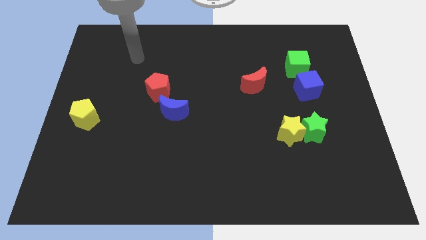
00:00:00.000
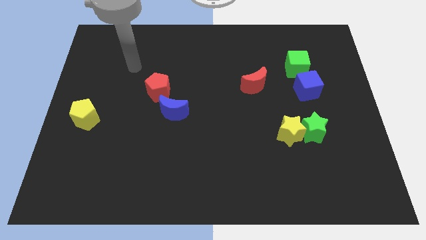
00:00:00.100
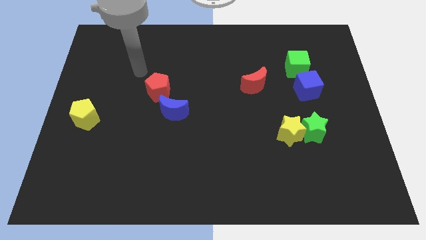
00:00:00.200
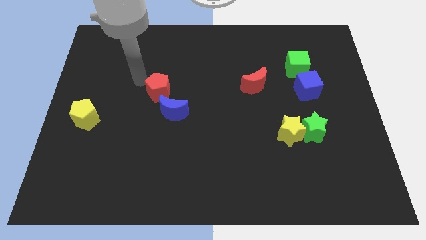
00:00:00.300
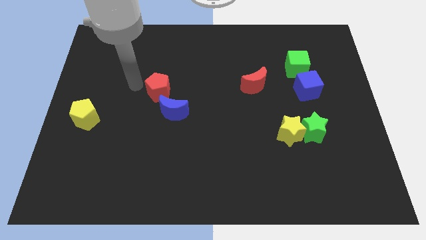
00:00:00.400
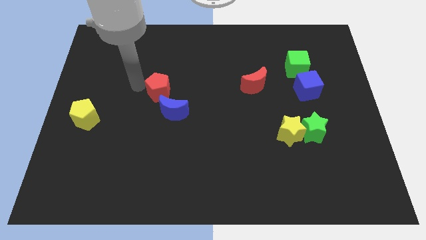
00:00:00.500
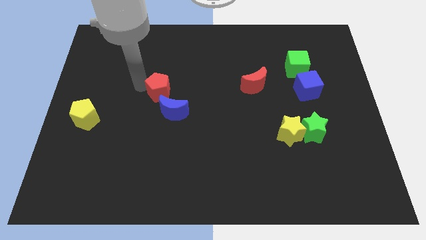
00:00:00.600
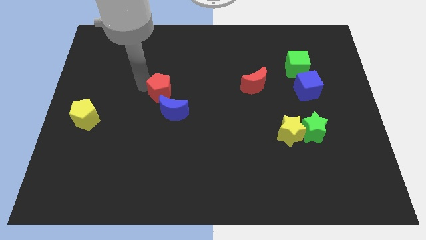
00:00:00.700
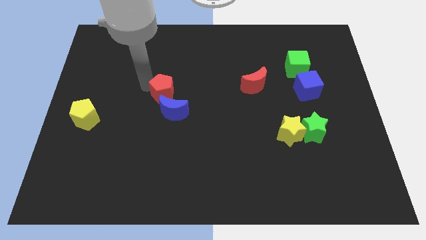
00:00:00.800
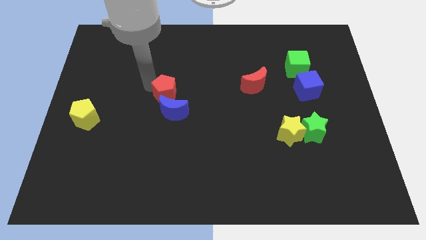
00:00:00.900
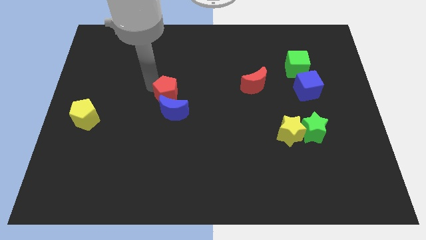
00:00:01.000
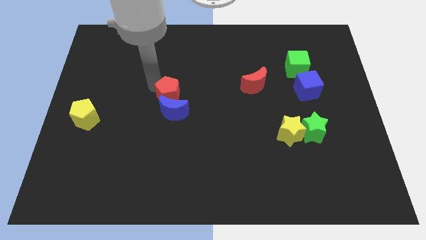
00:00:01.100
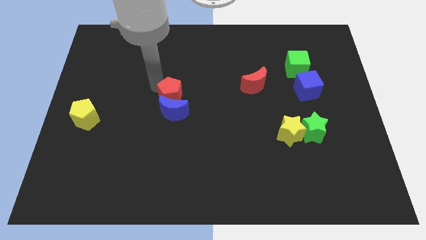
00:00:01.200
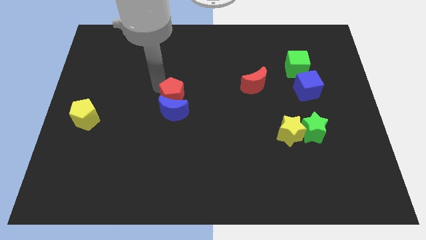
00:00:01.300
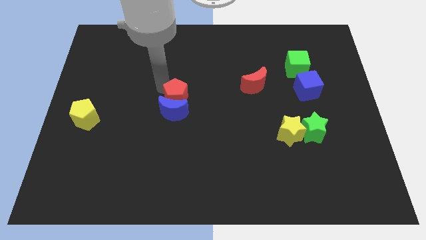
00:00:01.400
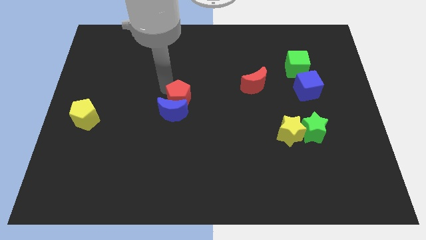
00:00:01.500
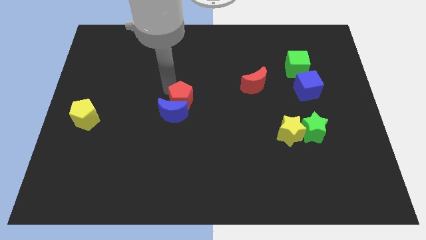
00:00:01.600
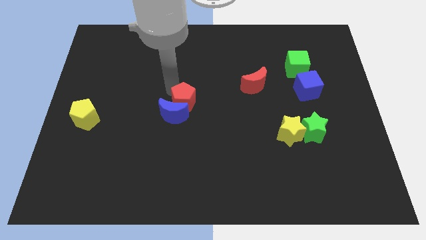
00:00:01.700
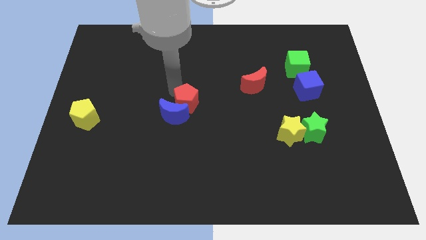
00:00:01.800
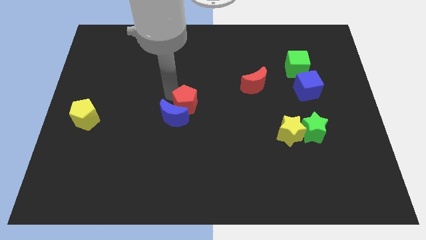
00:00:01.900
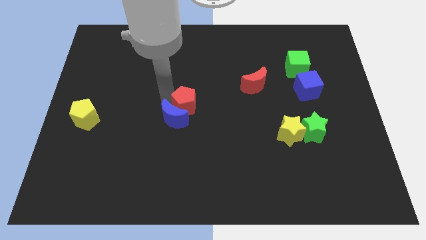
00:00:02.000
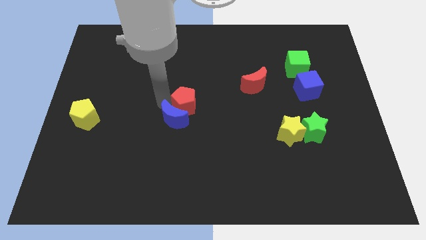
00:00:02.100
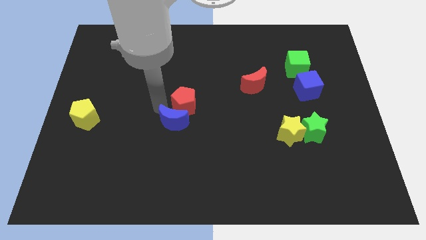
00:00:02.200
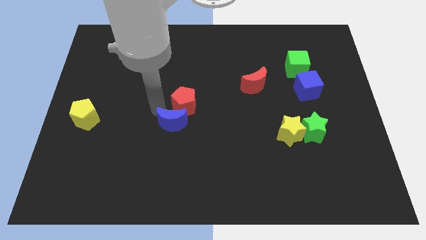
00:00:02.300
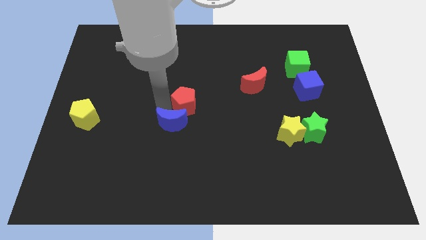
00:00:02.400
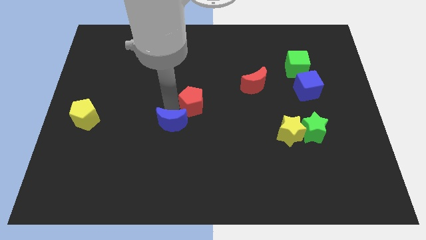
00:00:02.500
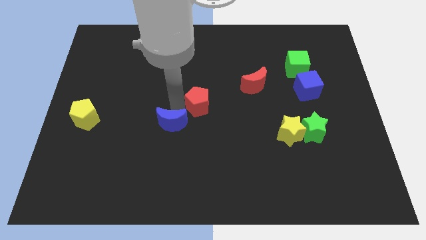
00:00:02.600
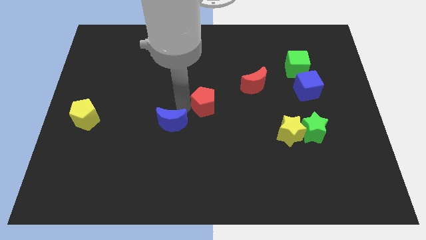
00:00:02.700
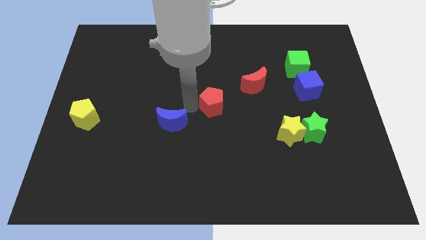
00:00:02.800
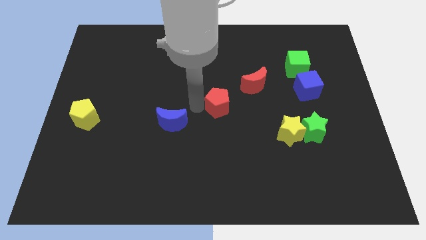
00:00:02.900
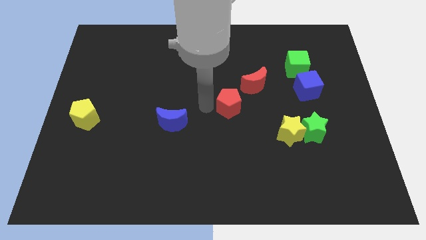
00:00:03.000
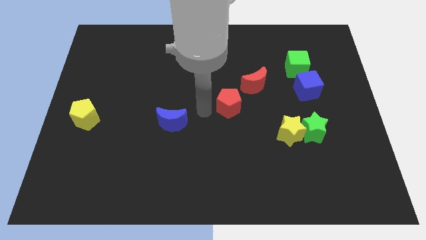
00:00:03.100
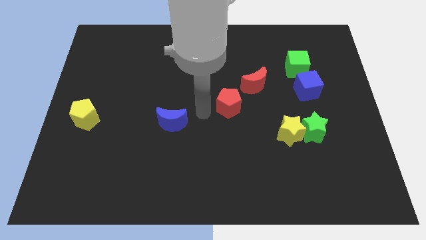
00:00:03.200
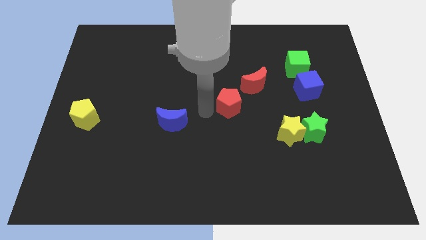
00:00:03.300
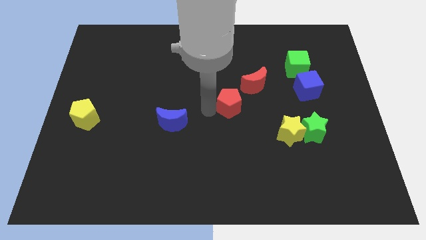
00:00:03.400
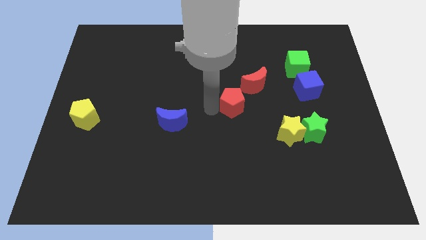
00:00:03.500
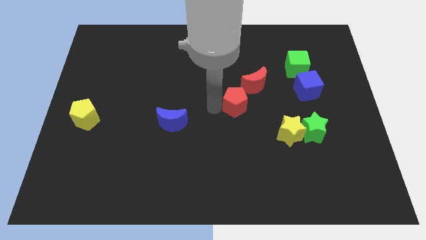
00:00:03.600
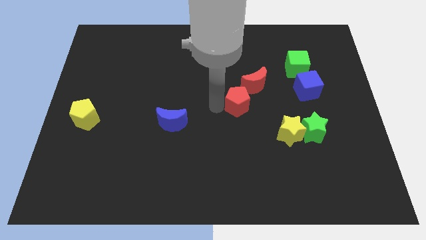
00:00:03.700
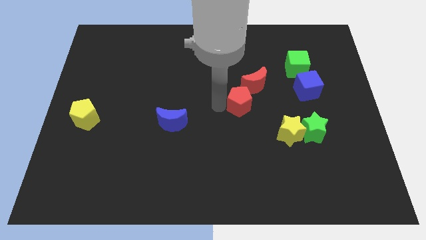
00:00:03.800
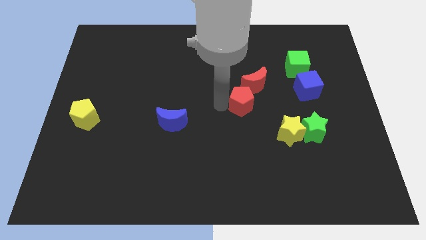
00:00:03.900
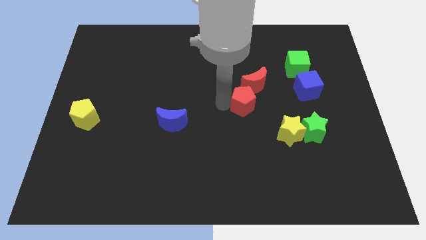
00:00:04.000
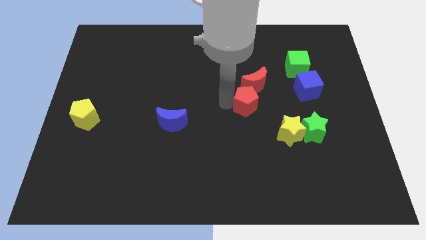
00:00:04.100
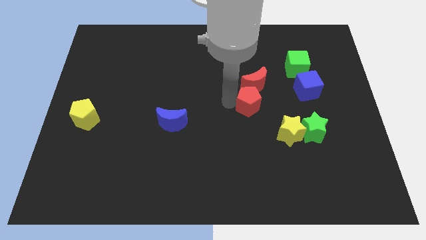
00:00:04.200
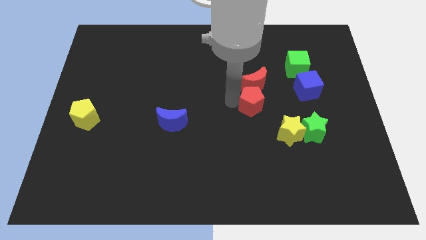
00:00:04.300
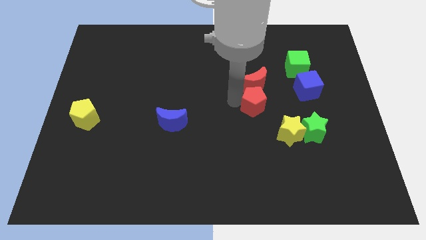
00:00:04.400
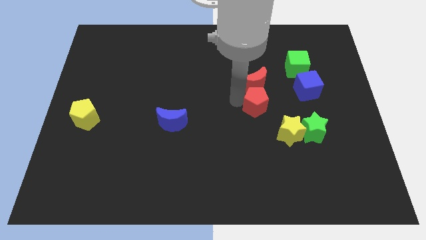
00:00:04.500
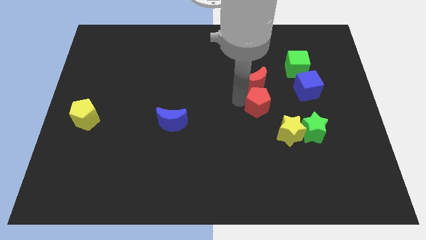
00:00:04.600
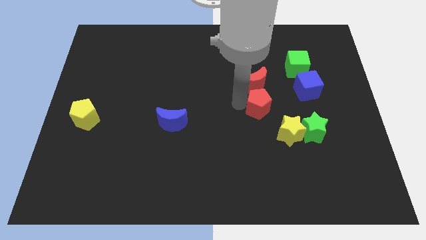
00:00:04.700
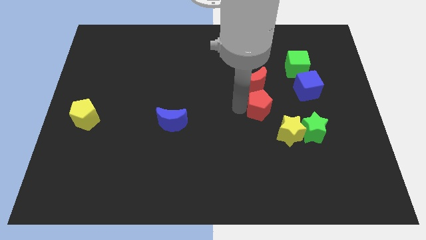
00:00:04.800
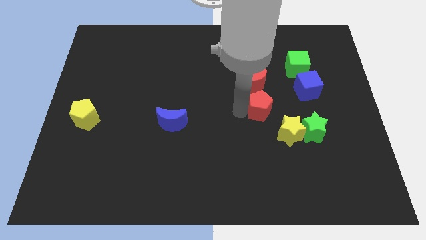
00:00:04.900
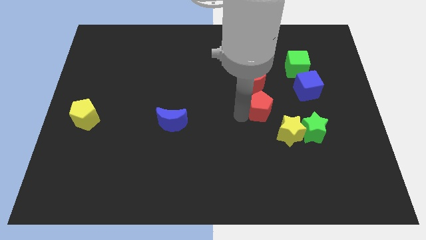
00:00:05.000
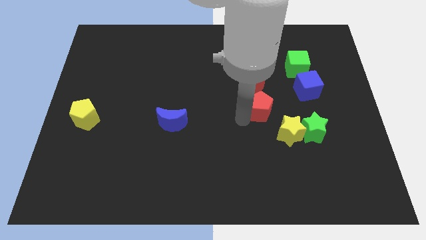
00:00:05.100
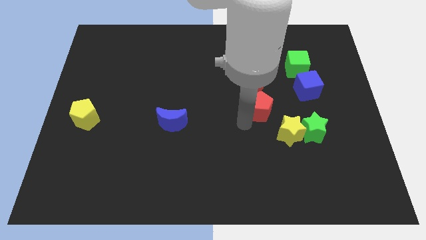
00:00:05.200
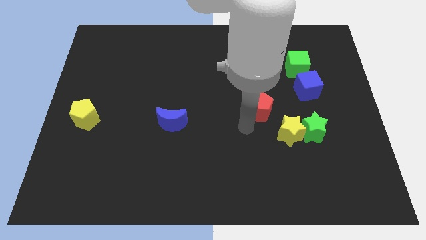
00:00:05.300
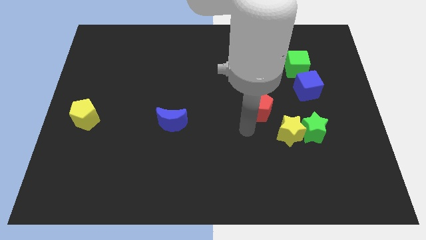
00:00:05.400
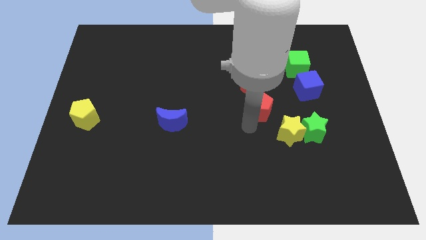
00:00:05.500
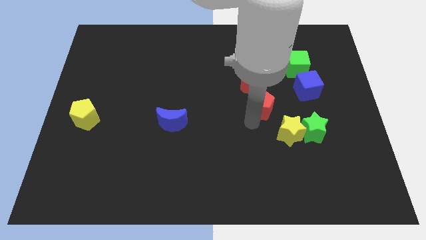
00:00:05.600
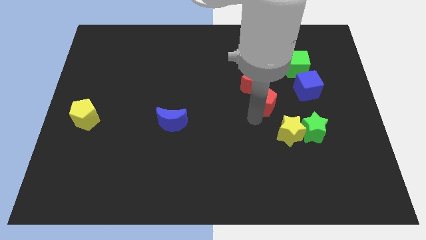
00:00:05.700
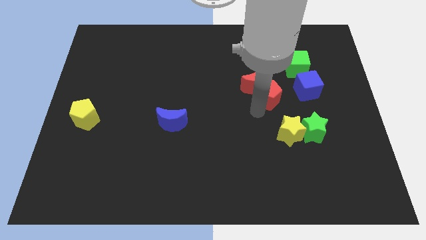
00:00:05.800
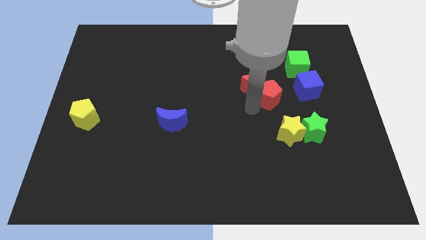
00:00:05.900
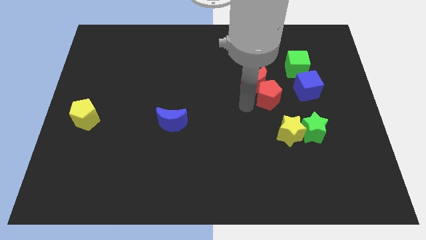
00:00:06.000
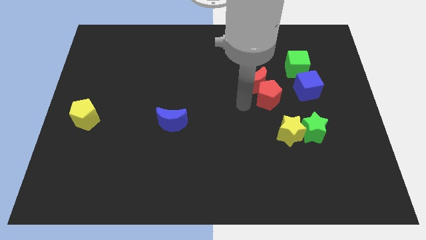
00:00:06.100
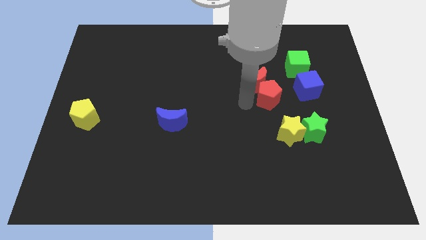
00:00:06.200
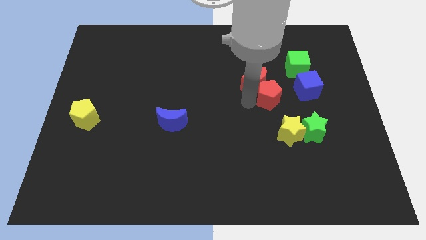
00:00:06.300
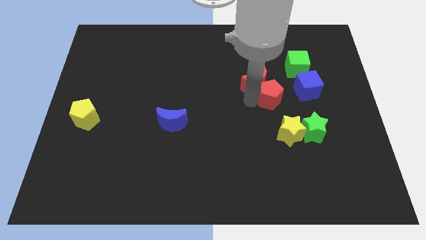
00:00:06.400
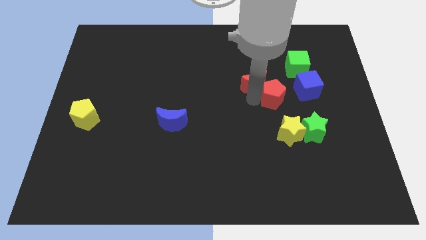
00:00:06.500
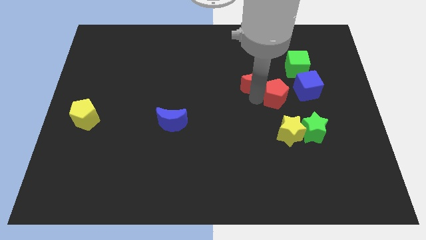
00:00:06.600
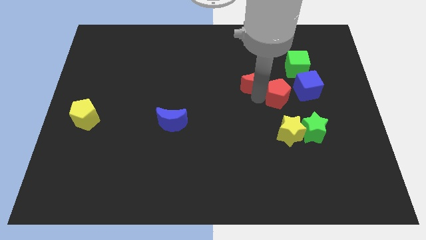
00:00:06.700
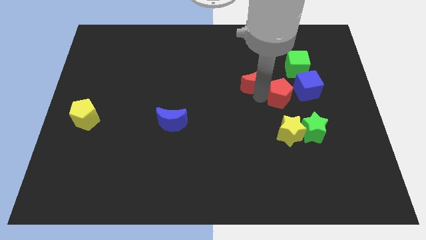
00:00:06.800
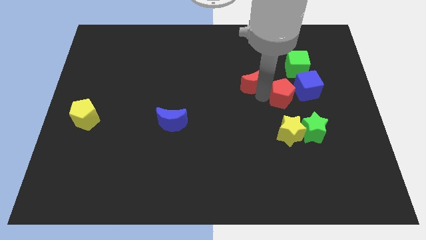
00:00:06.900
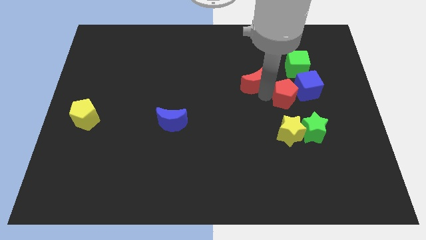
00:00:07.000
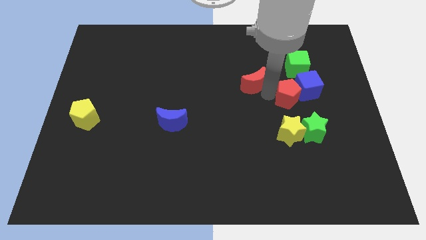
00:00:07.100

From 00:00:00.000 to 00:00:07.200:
slide the red pentagon close to the blue cube
